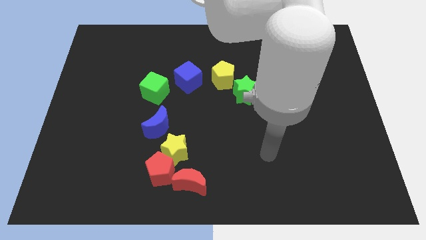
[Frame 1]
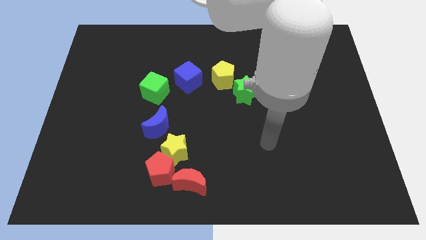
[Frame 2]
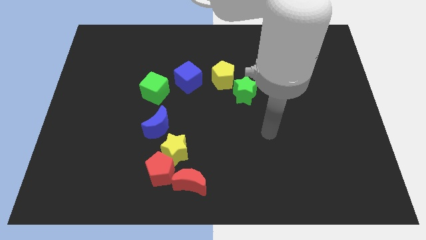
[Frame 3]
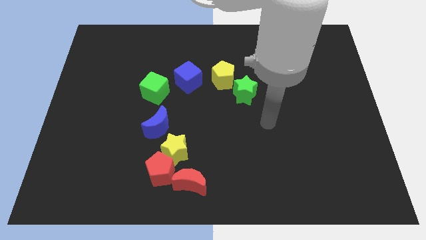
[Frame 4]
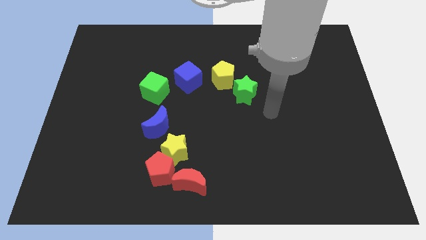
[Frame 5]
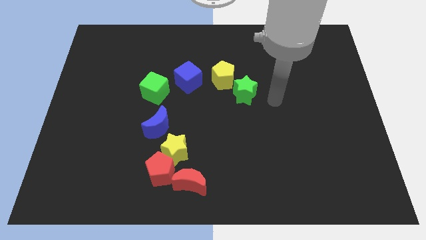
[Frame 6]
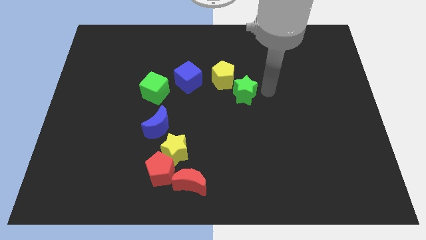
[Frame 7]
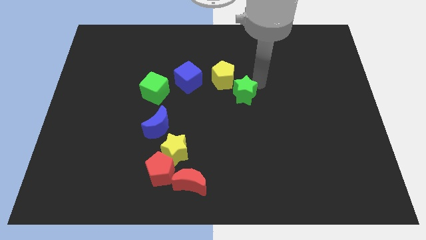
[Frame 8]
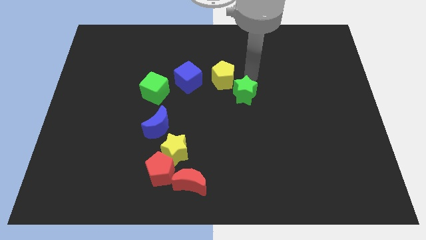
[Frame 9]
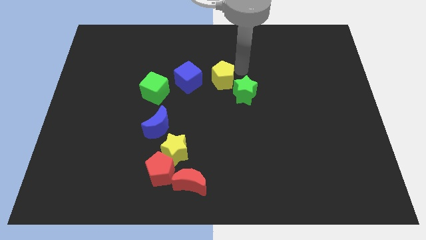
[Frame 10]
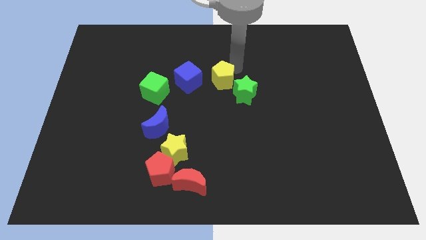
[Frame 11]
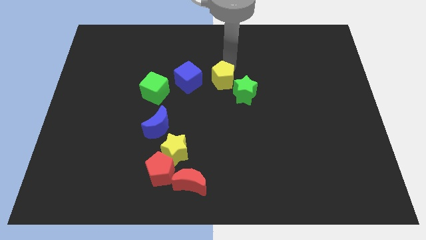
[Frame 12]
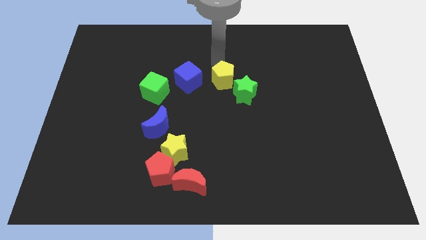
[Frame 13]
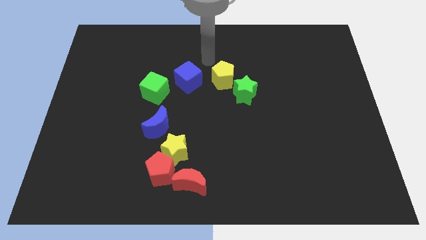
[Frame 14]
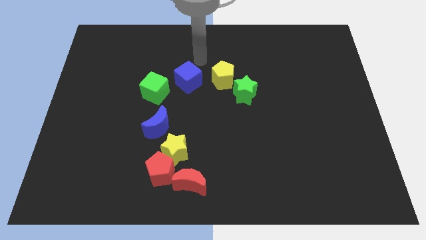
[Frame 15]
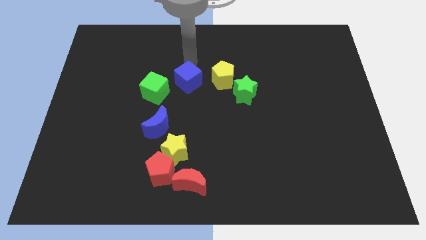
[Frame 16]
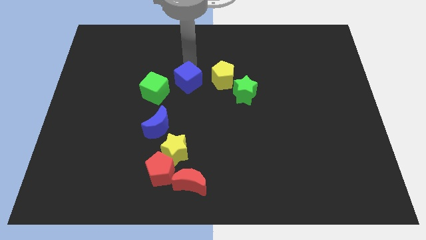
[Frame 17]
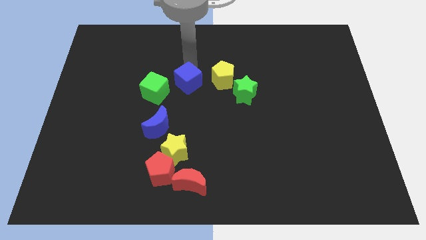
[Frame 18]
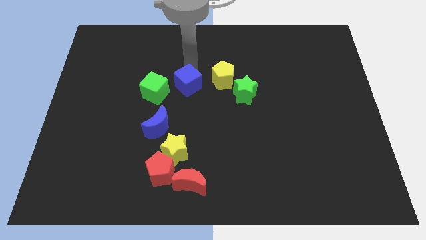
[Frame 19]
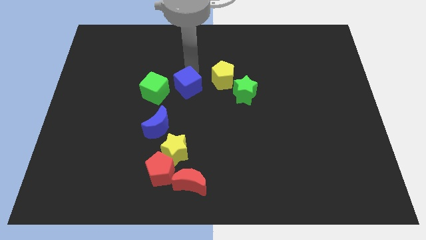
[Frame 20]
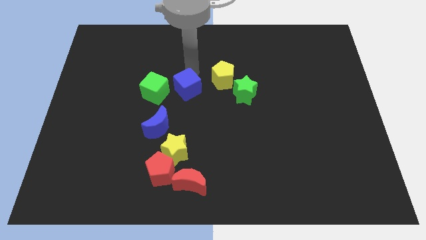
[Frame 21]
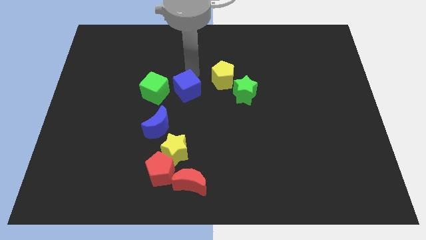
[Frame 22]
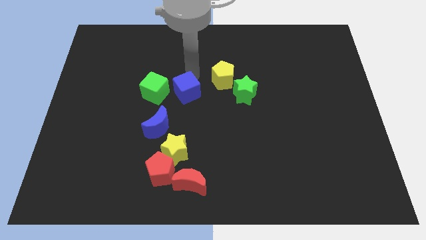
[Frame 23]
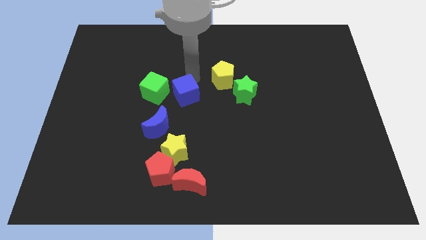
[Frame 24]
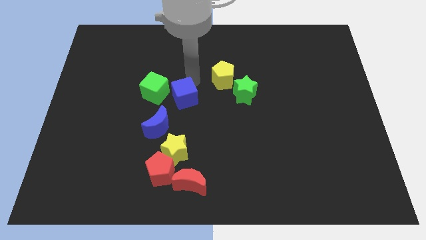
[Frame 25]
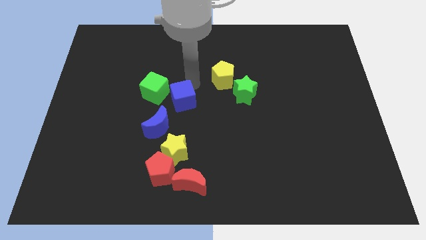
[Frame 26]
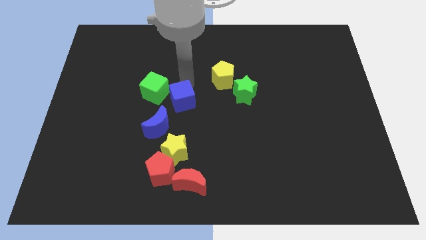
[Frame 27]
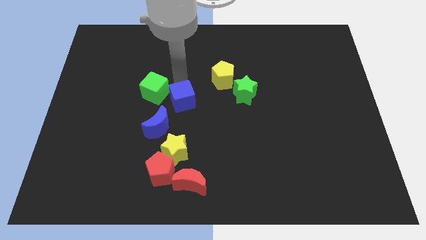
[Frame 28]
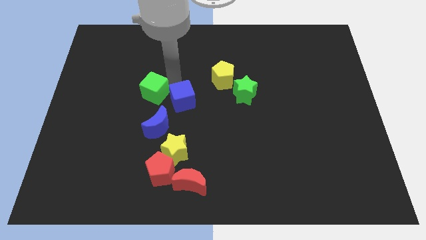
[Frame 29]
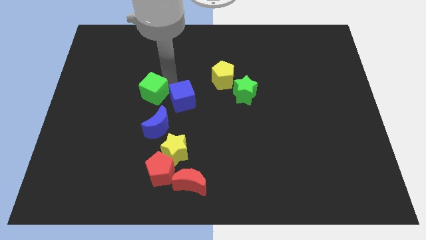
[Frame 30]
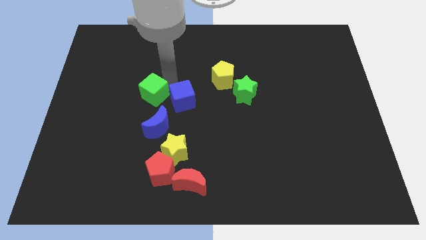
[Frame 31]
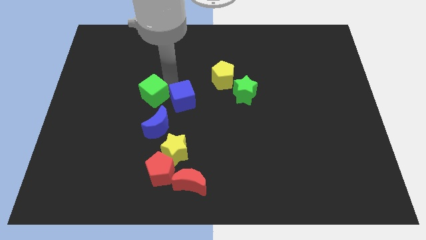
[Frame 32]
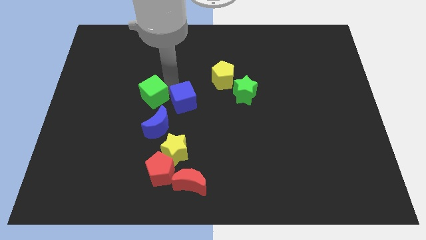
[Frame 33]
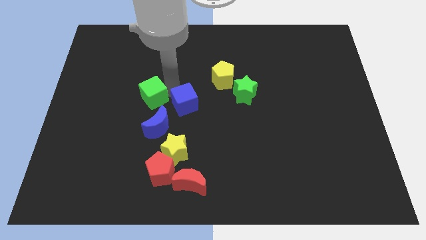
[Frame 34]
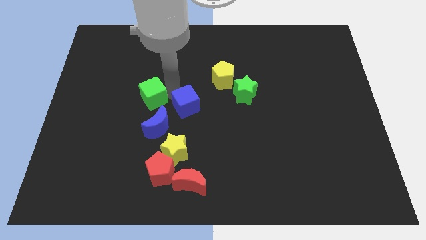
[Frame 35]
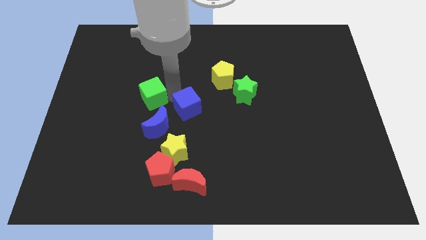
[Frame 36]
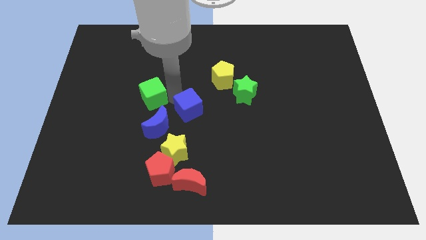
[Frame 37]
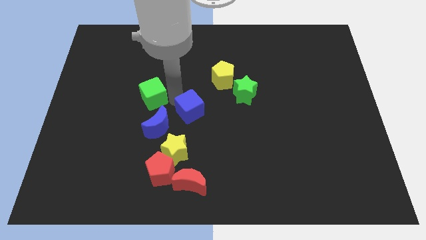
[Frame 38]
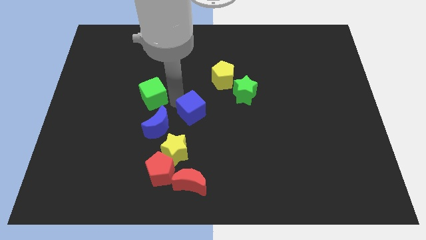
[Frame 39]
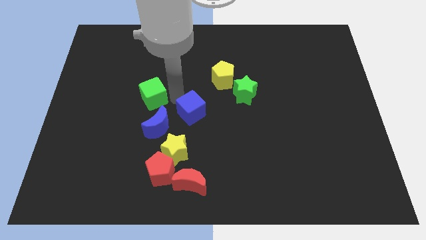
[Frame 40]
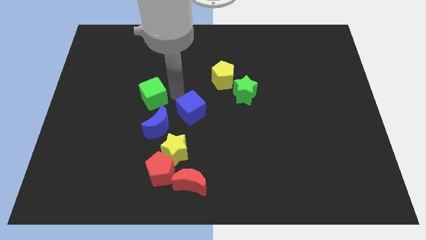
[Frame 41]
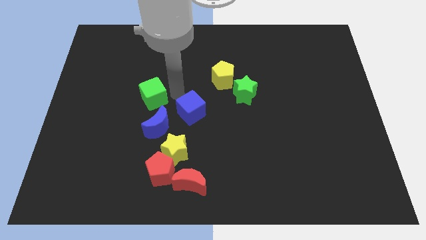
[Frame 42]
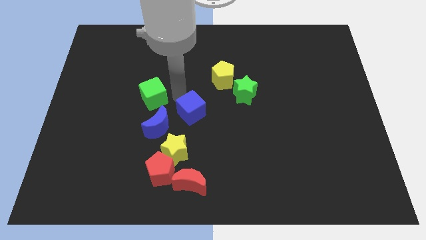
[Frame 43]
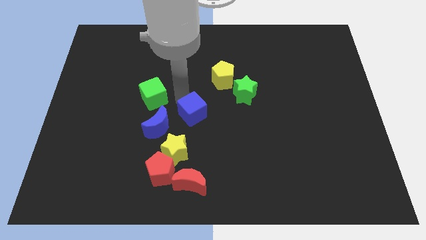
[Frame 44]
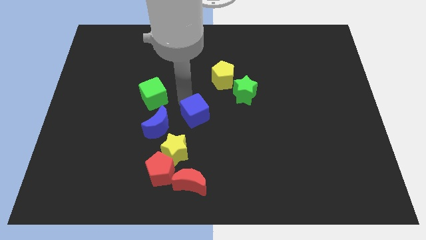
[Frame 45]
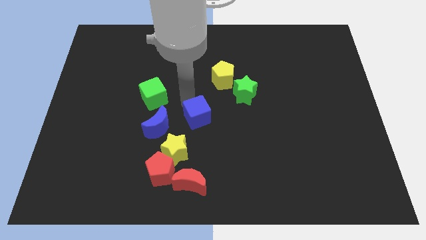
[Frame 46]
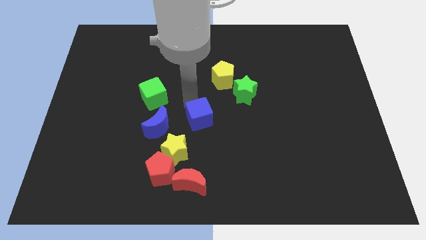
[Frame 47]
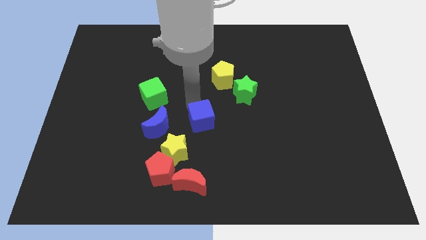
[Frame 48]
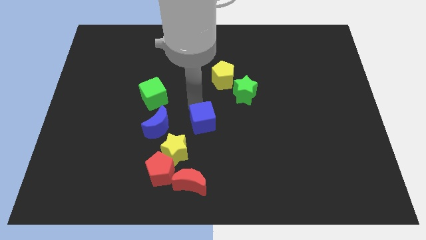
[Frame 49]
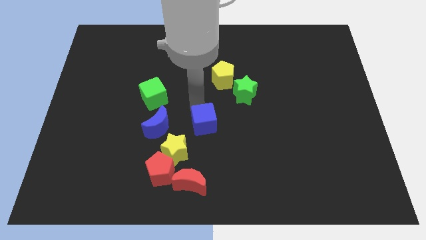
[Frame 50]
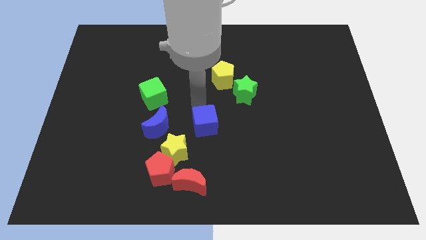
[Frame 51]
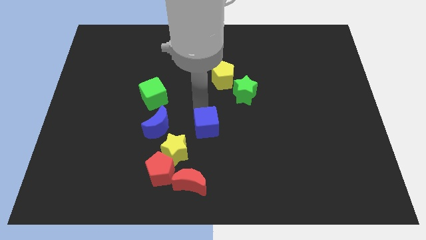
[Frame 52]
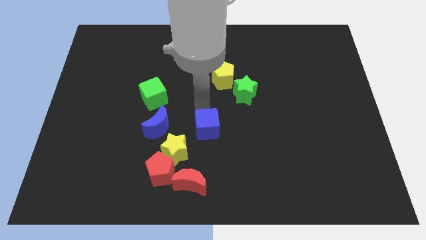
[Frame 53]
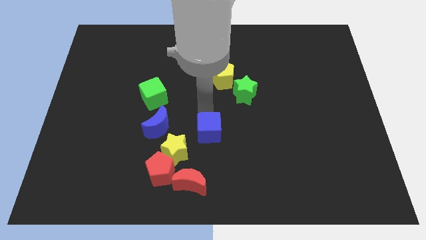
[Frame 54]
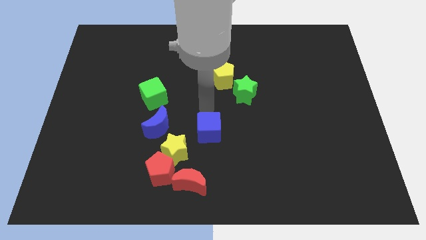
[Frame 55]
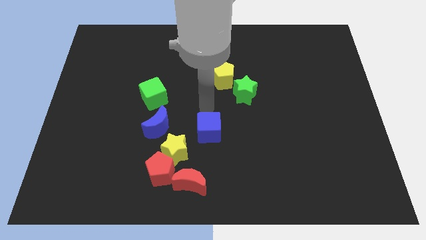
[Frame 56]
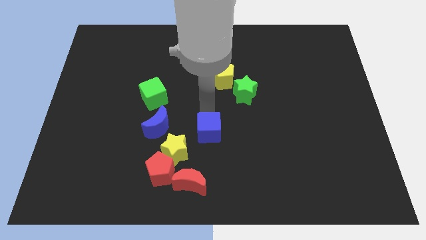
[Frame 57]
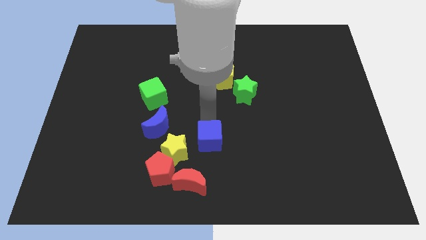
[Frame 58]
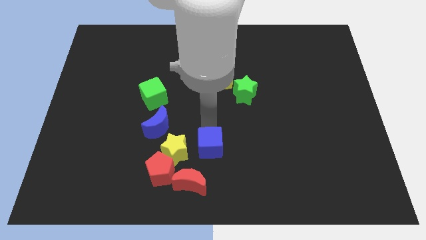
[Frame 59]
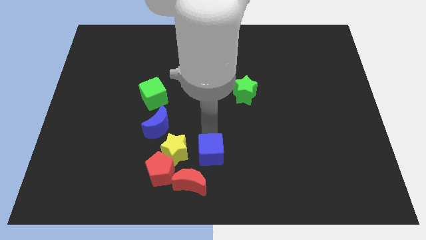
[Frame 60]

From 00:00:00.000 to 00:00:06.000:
push the blue cube to the bottom side

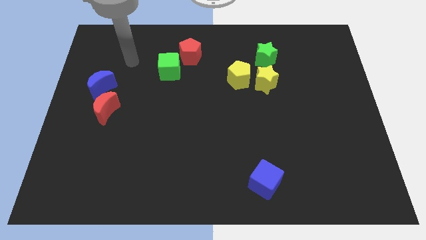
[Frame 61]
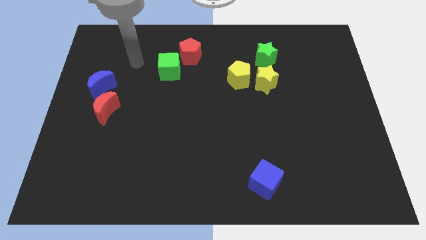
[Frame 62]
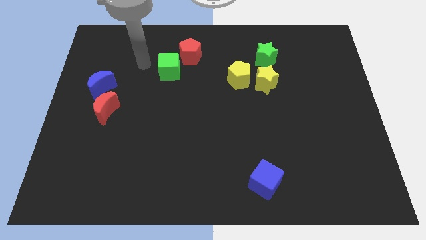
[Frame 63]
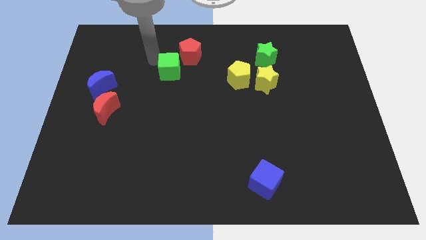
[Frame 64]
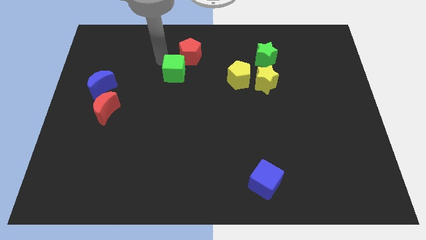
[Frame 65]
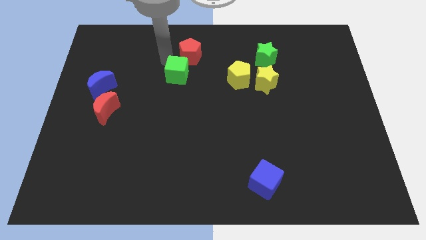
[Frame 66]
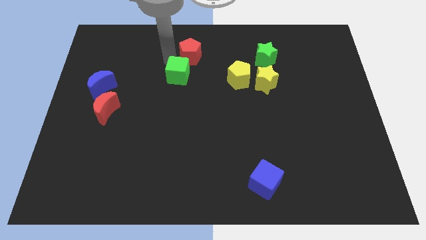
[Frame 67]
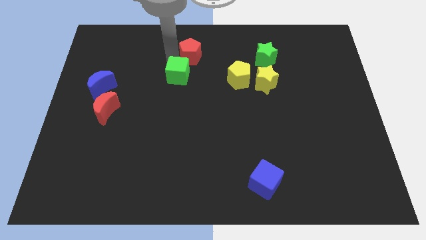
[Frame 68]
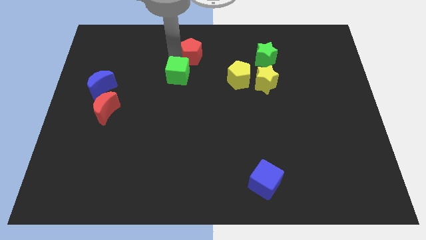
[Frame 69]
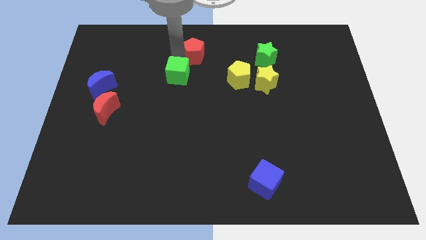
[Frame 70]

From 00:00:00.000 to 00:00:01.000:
put the red pentagon to the towards your base

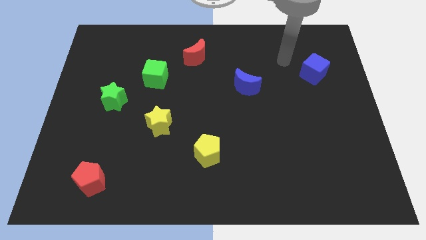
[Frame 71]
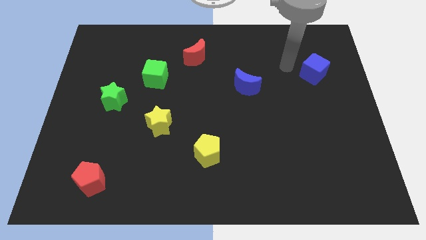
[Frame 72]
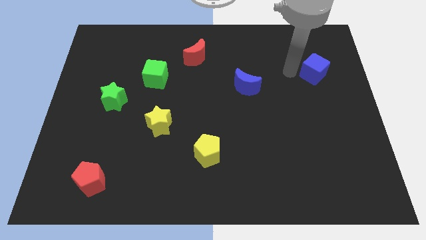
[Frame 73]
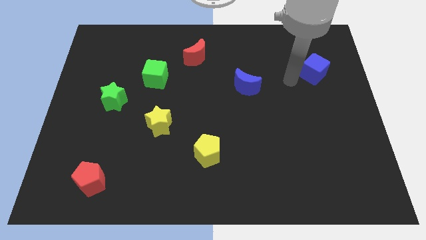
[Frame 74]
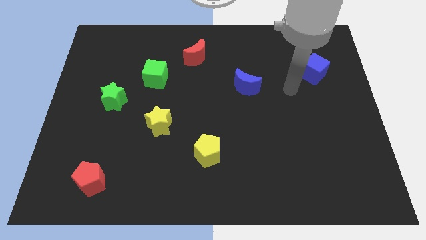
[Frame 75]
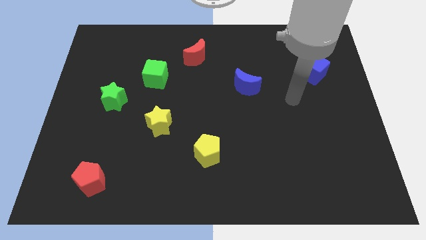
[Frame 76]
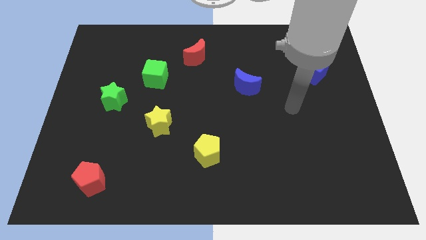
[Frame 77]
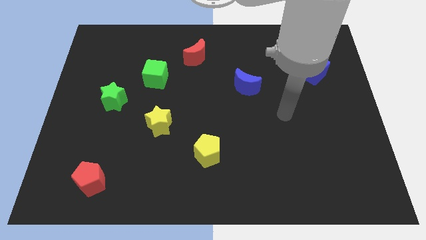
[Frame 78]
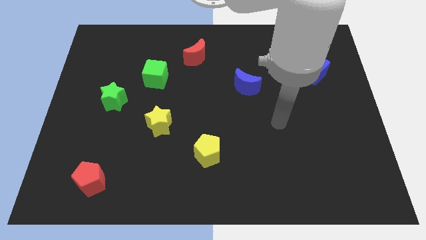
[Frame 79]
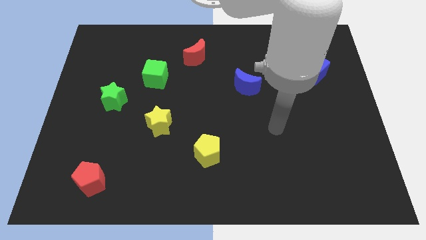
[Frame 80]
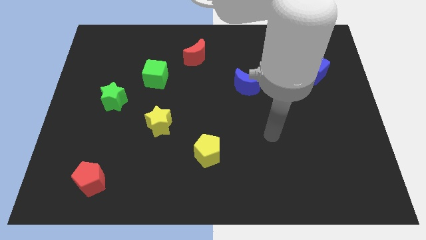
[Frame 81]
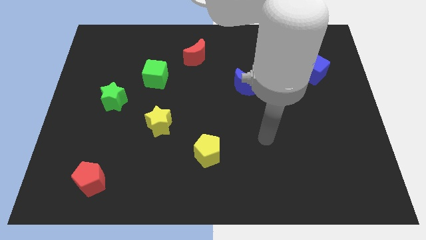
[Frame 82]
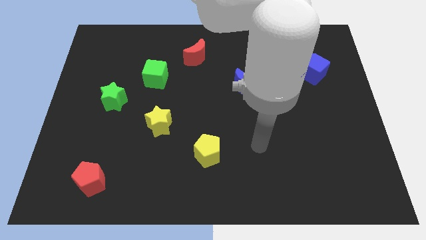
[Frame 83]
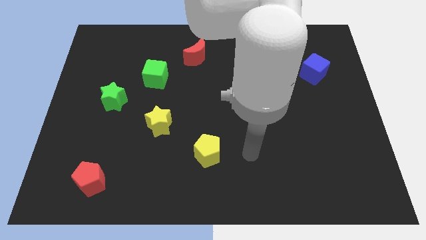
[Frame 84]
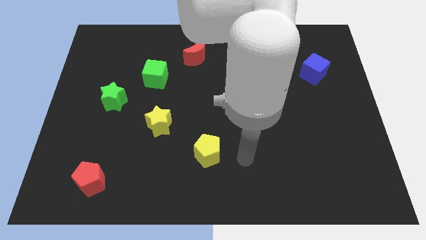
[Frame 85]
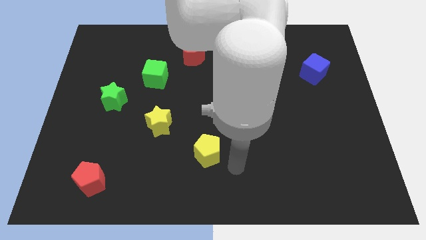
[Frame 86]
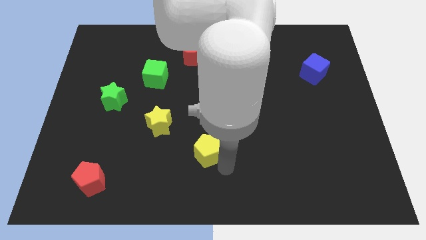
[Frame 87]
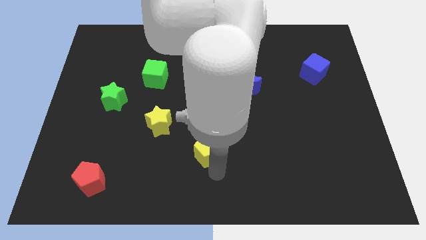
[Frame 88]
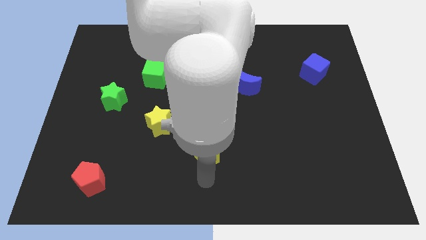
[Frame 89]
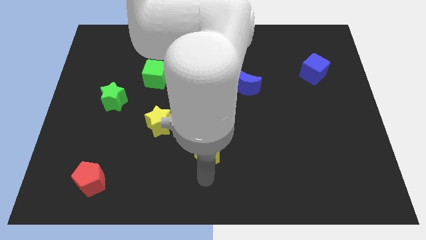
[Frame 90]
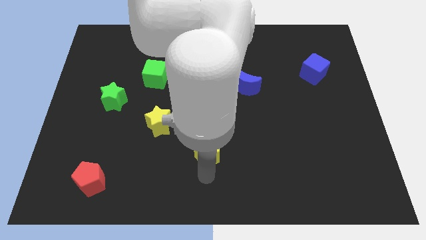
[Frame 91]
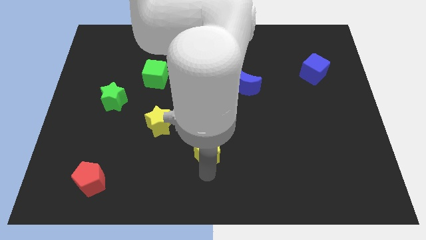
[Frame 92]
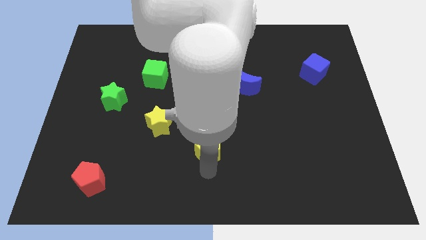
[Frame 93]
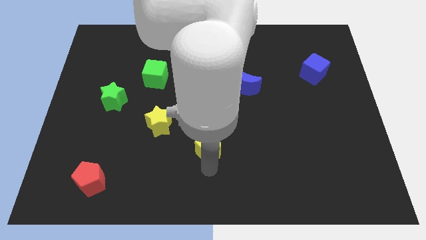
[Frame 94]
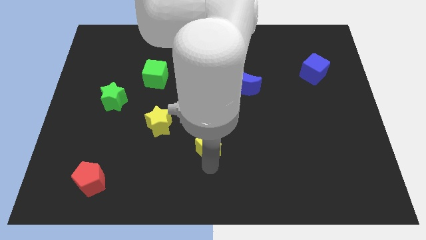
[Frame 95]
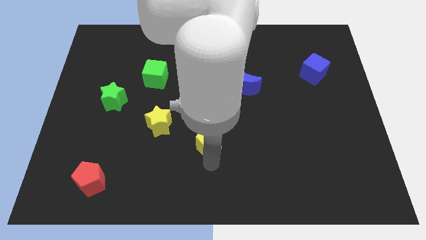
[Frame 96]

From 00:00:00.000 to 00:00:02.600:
slide the yellow pentagon to the middle
